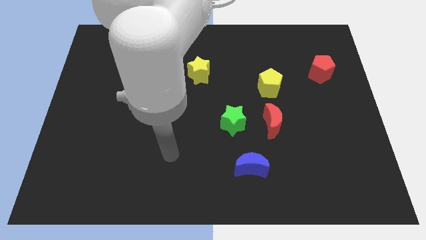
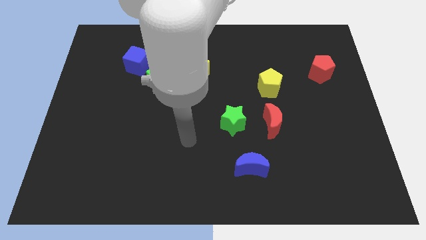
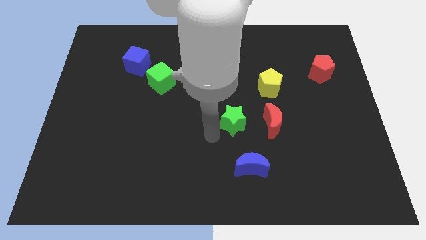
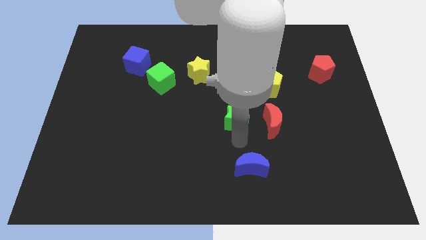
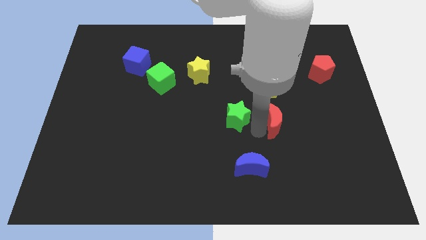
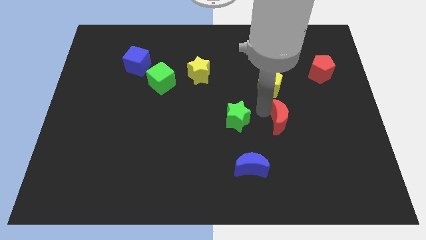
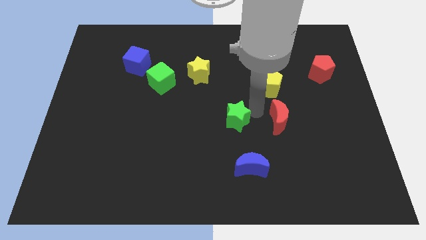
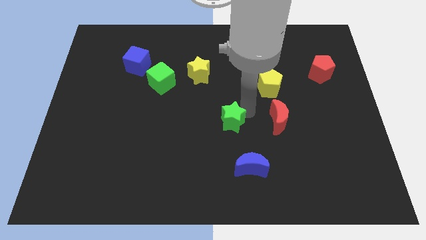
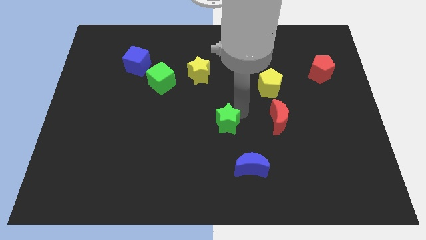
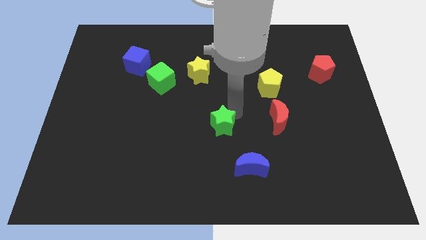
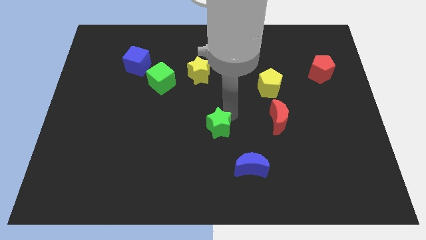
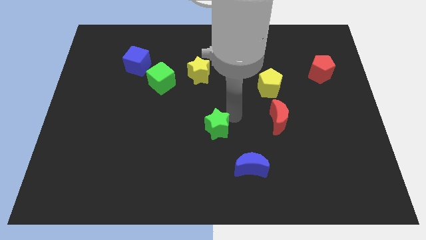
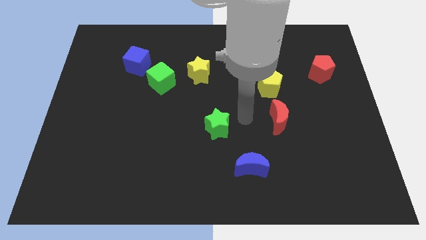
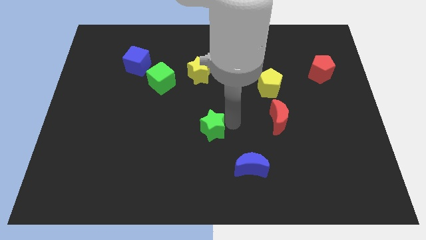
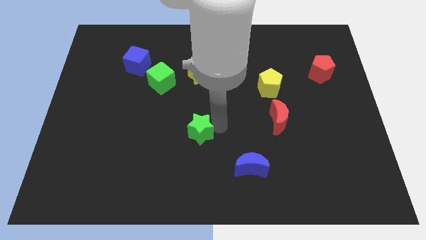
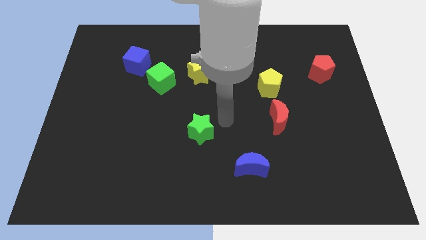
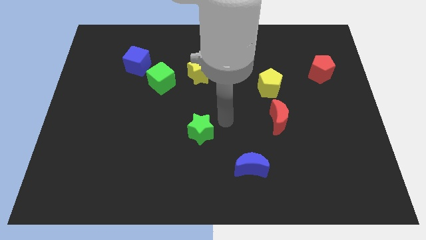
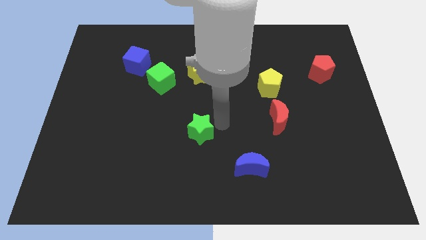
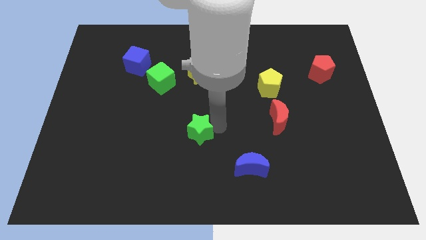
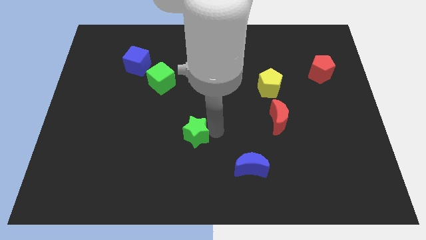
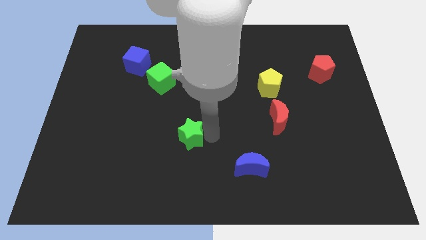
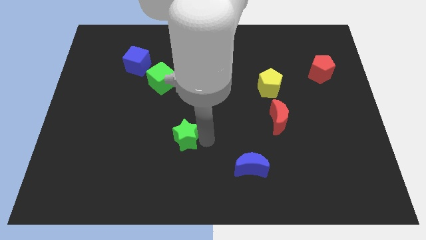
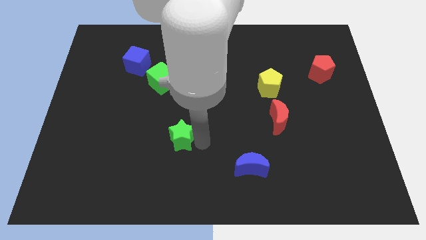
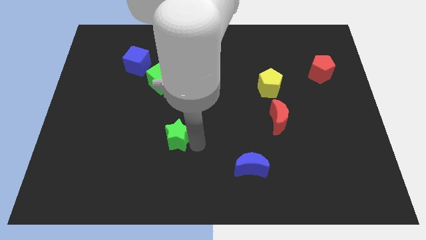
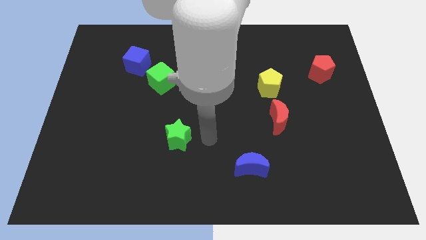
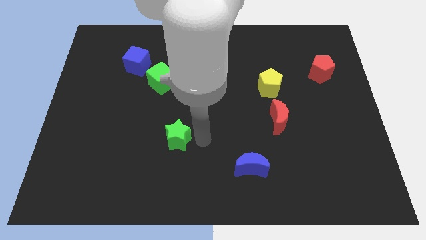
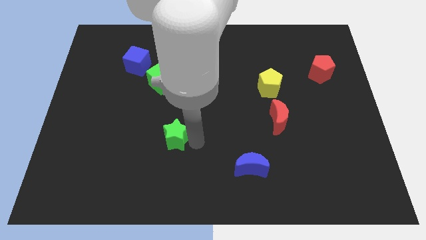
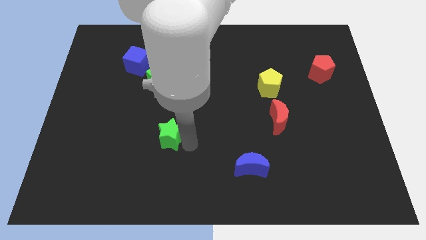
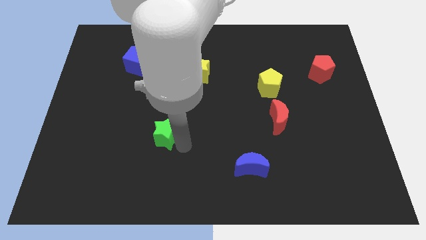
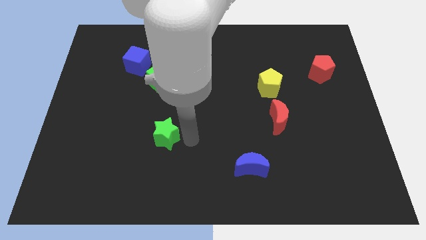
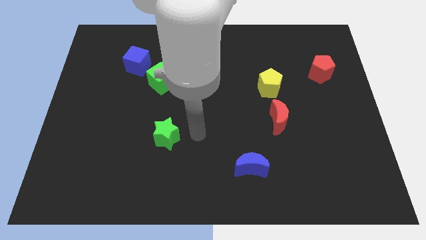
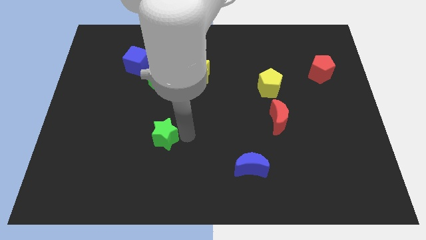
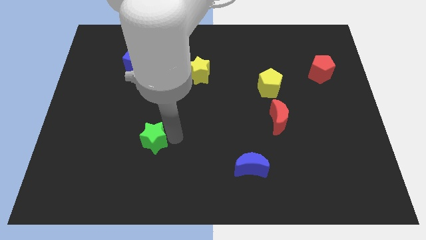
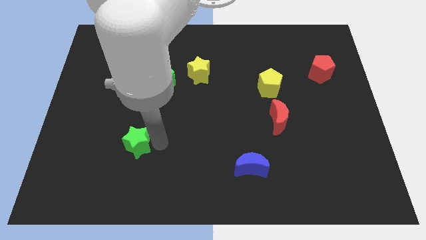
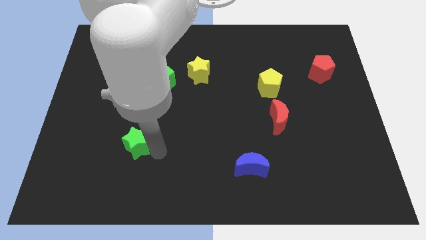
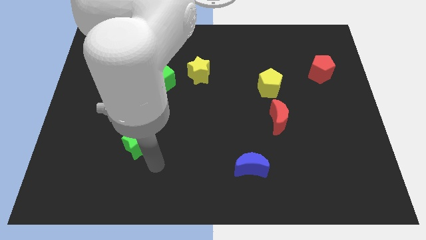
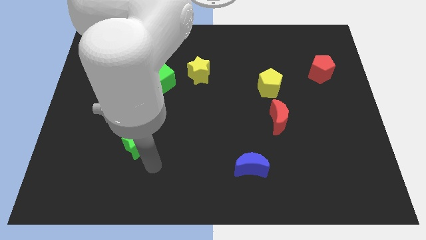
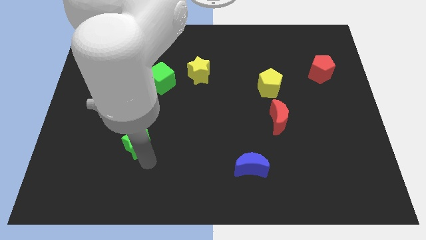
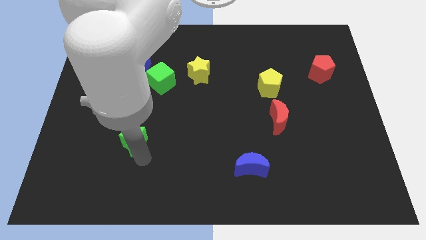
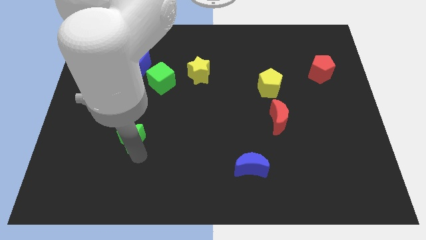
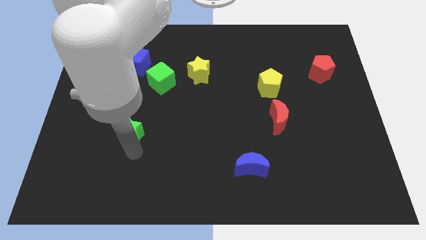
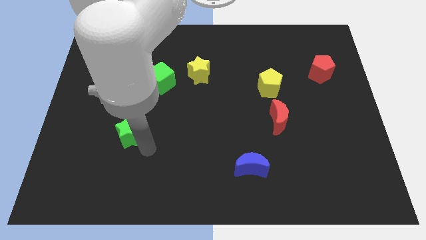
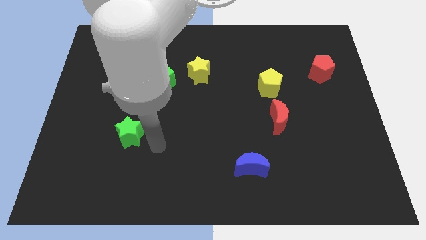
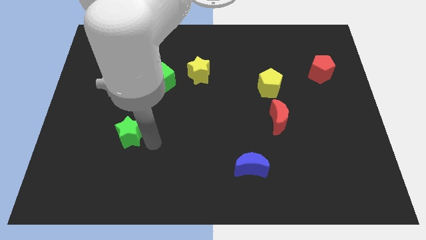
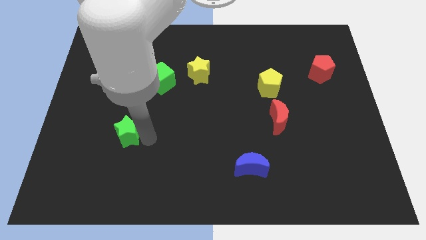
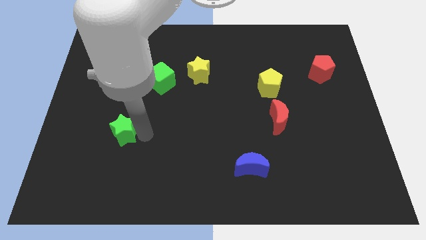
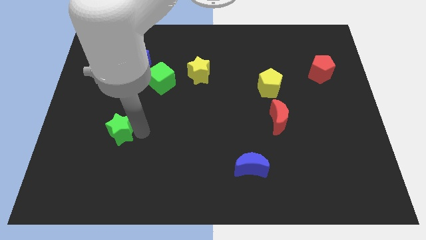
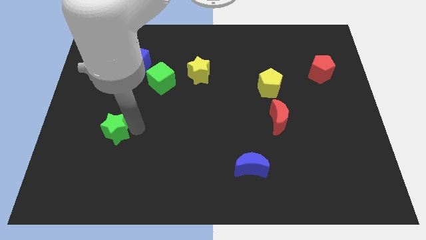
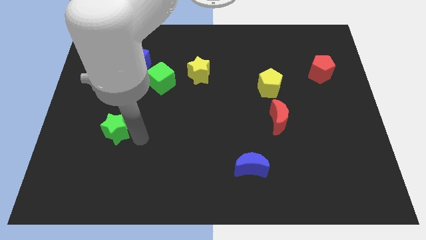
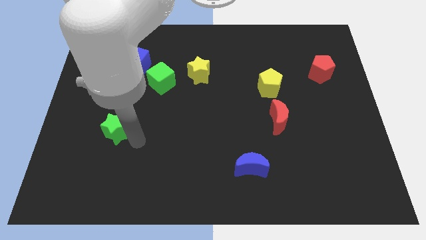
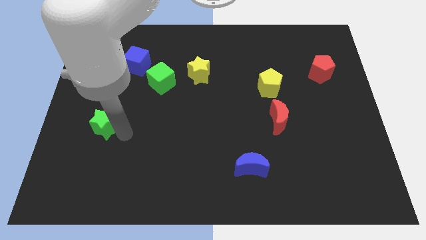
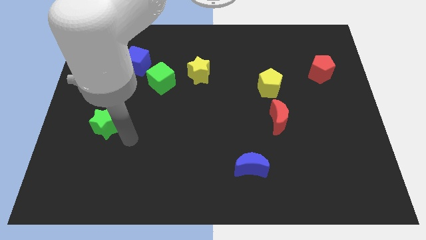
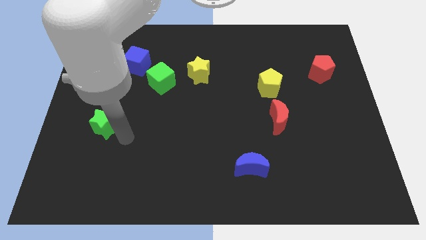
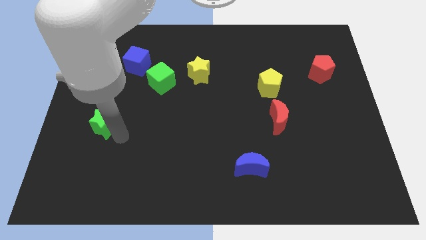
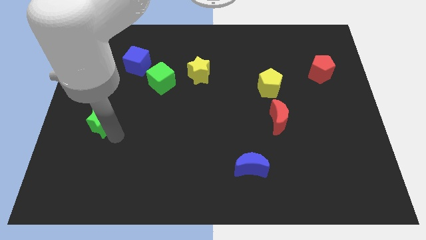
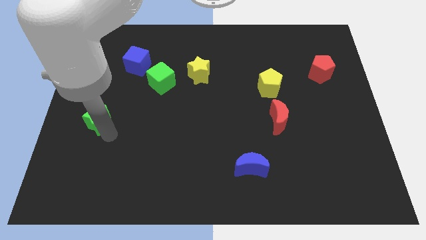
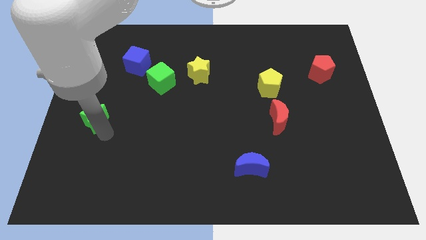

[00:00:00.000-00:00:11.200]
put the green star to the left side of the board

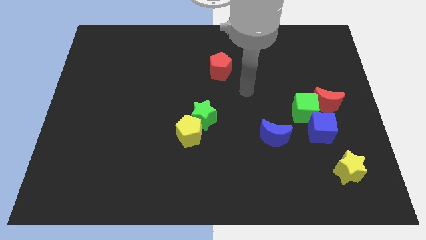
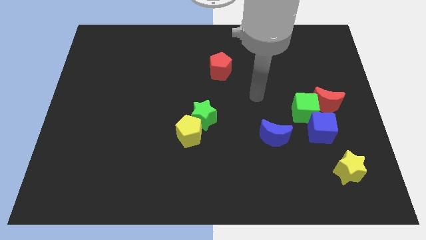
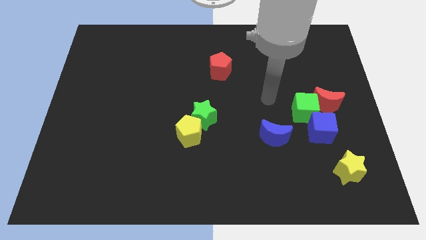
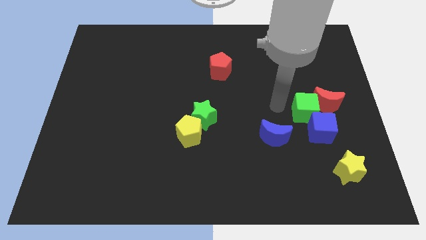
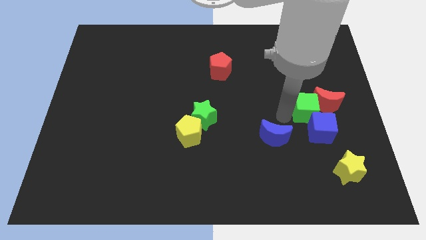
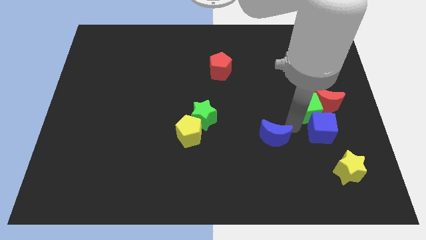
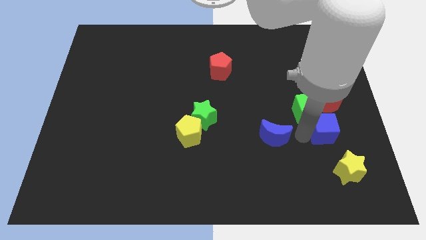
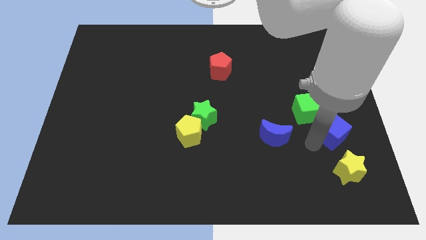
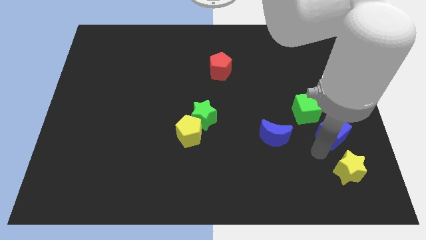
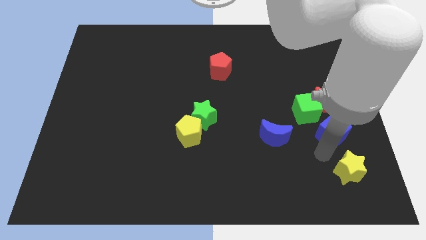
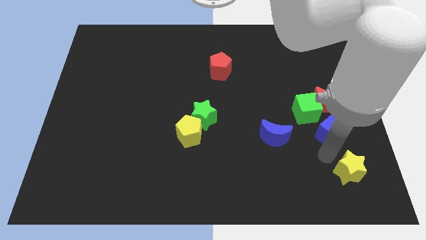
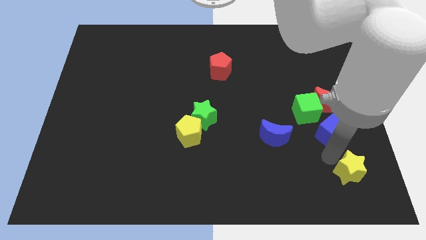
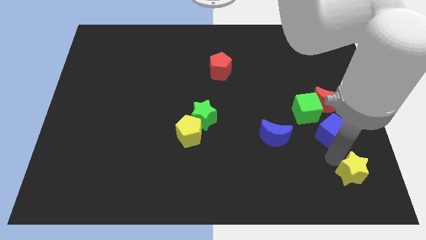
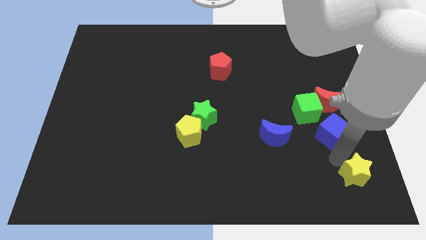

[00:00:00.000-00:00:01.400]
put the yellow star to the bottom right corner
